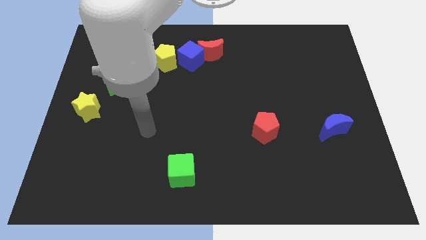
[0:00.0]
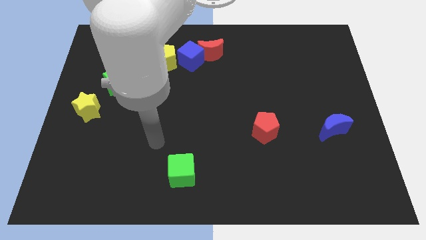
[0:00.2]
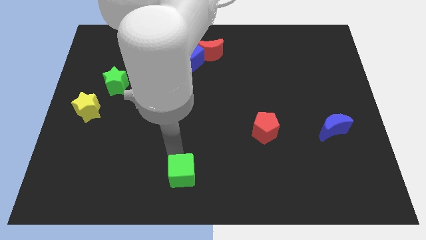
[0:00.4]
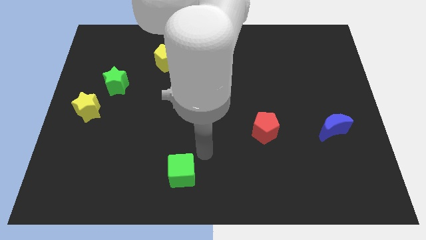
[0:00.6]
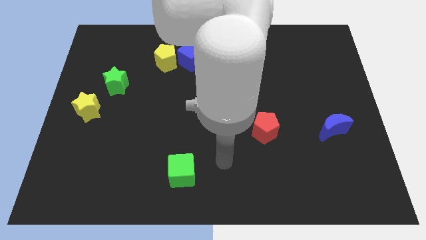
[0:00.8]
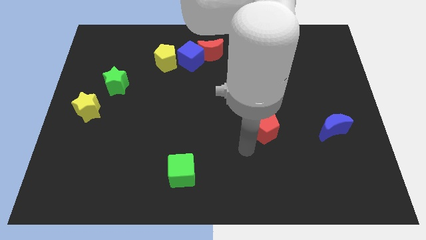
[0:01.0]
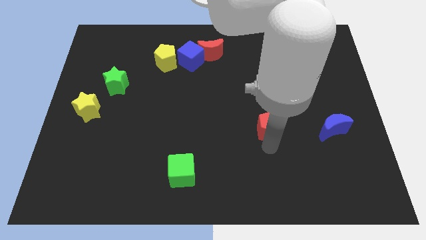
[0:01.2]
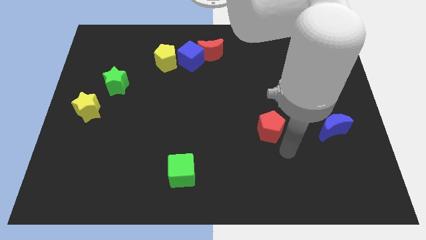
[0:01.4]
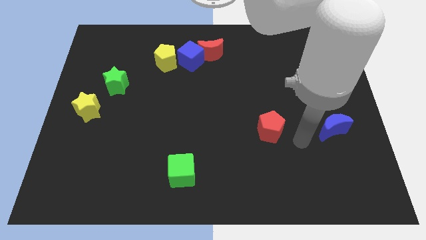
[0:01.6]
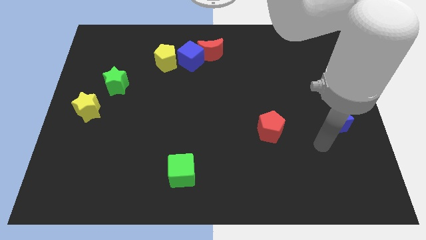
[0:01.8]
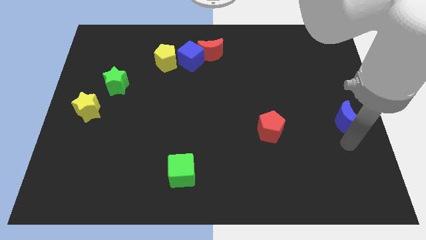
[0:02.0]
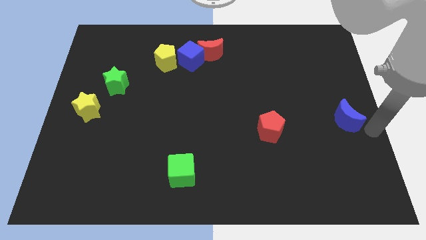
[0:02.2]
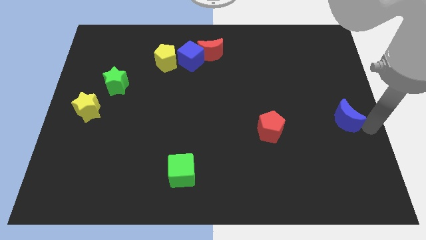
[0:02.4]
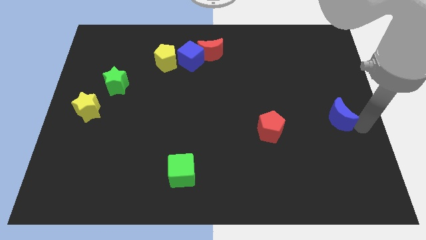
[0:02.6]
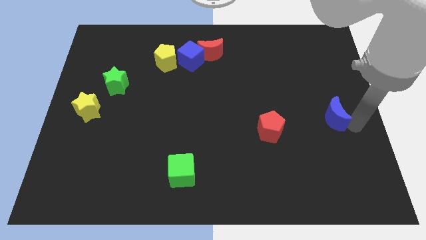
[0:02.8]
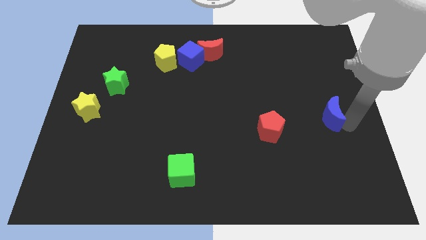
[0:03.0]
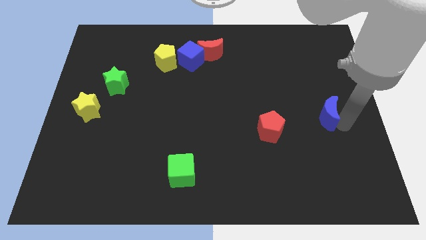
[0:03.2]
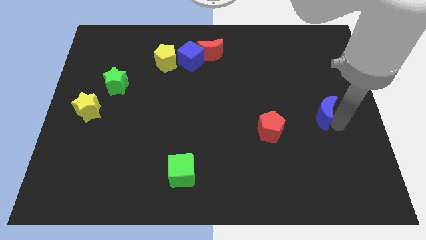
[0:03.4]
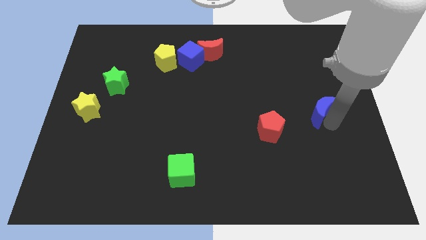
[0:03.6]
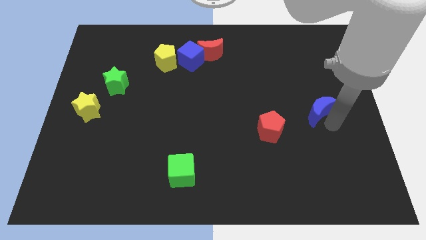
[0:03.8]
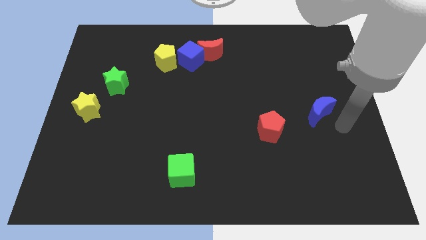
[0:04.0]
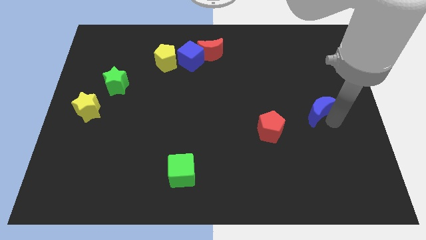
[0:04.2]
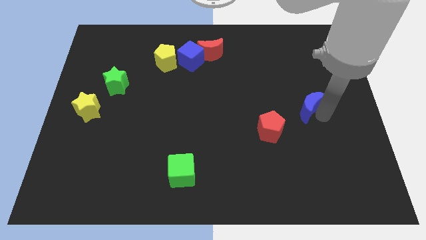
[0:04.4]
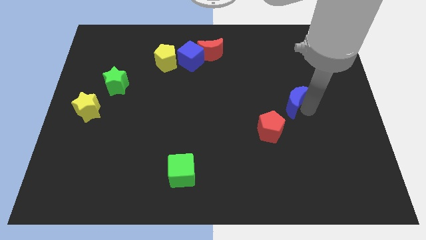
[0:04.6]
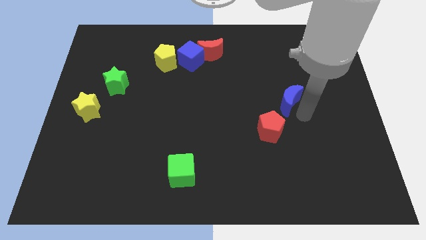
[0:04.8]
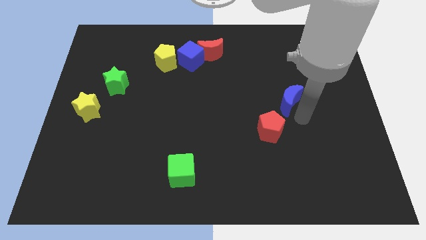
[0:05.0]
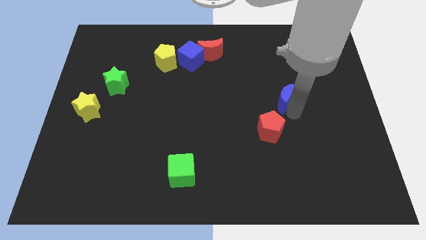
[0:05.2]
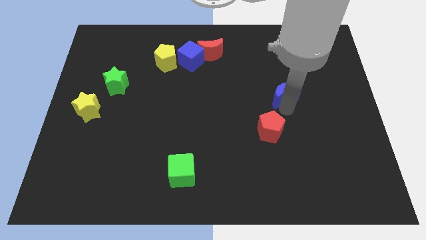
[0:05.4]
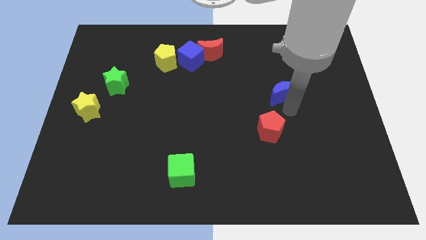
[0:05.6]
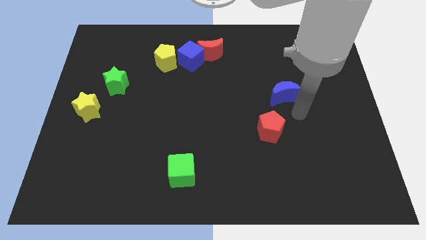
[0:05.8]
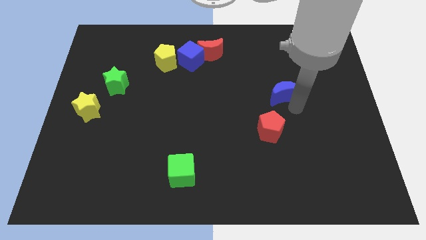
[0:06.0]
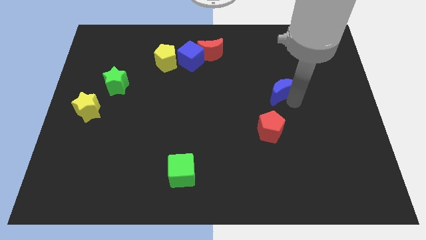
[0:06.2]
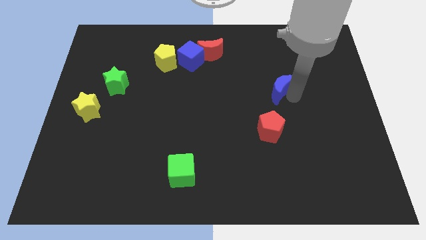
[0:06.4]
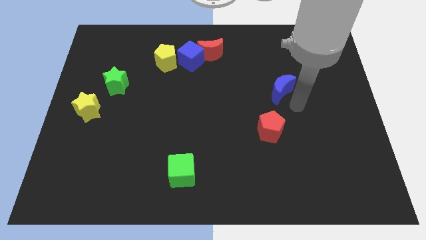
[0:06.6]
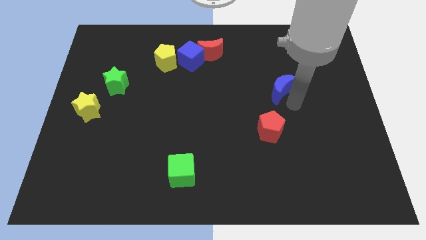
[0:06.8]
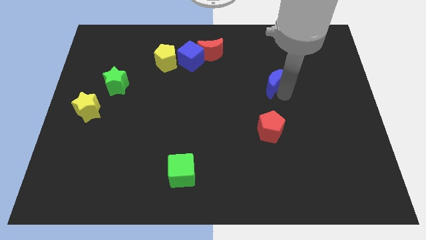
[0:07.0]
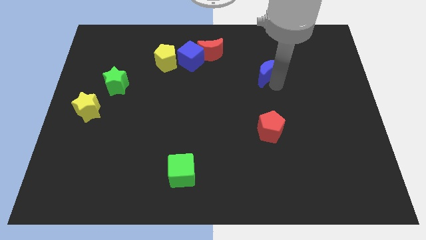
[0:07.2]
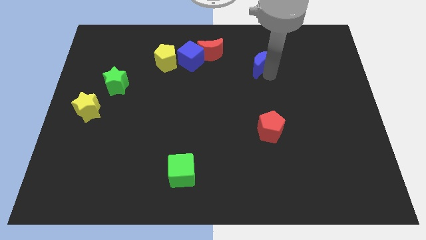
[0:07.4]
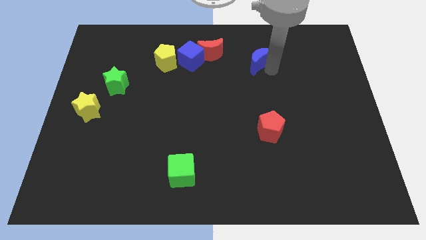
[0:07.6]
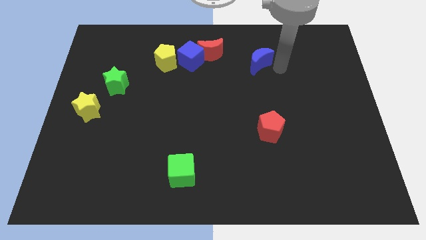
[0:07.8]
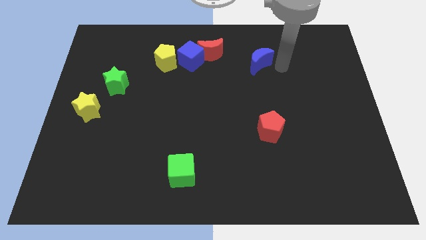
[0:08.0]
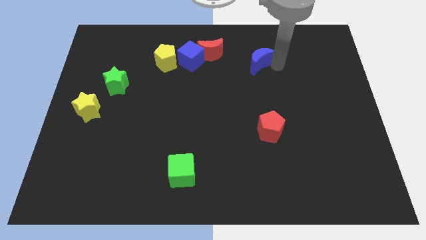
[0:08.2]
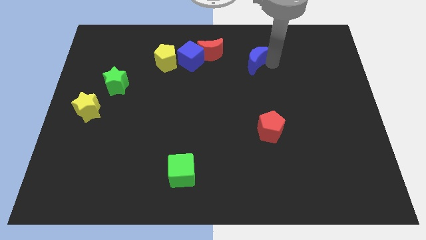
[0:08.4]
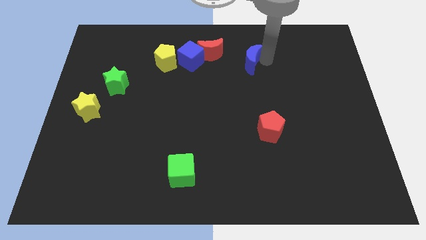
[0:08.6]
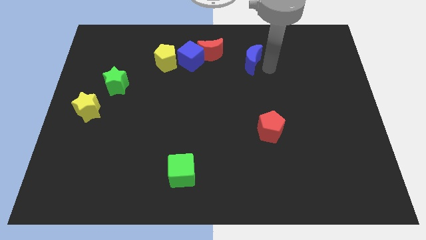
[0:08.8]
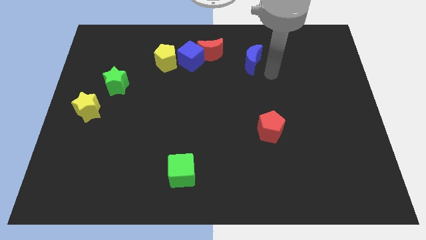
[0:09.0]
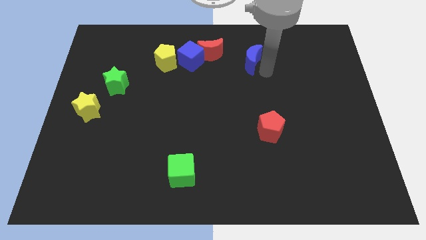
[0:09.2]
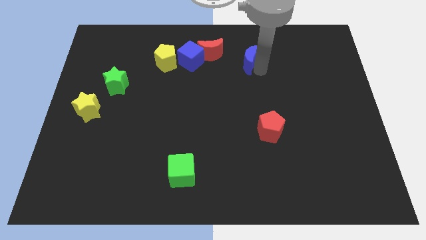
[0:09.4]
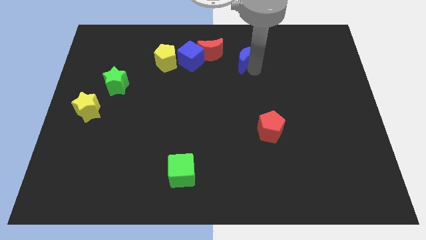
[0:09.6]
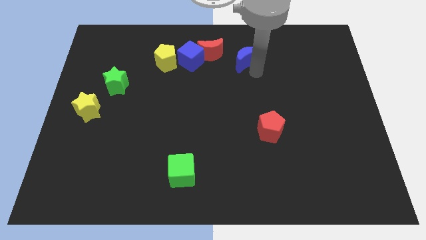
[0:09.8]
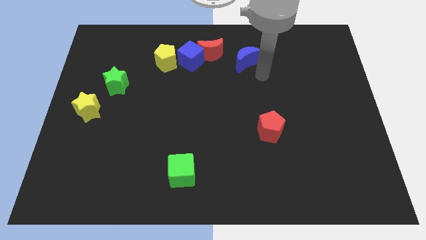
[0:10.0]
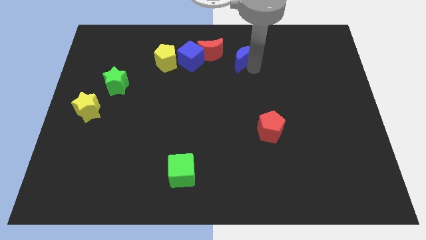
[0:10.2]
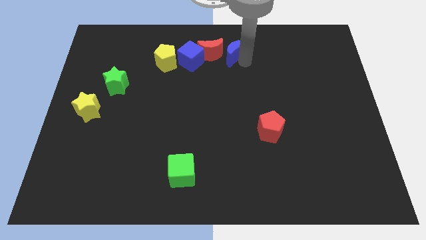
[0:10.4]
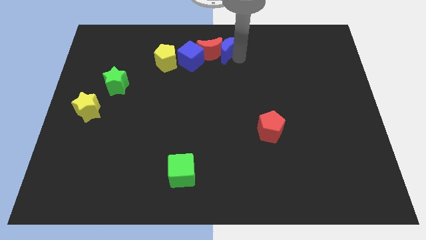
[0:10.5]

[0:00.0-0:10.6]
push the blue moon to the top side
